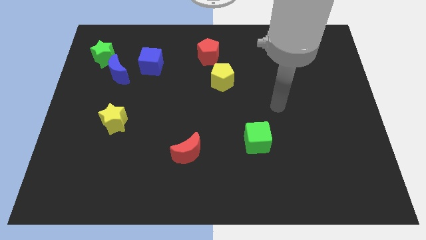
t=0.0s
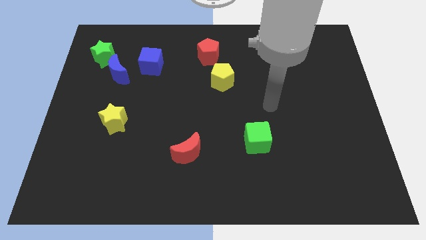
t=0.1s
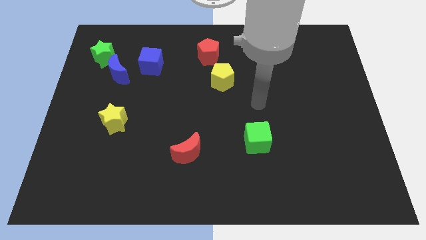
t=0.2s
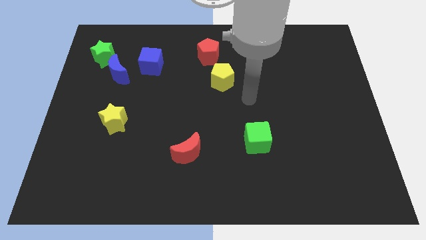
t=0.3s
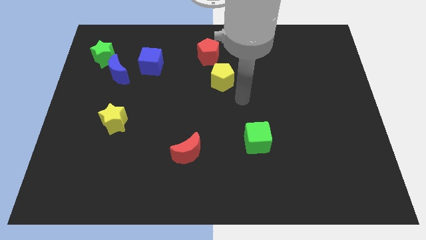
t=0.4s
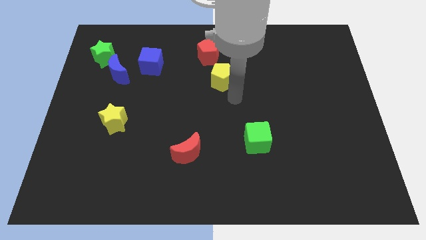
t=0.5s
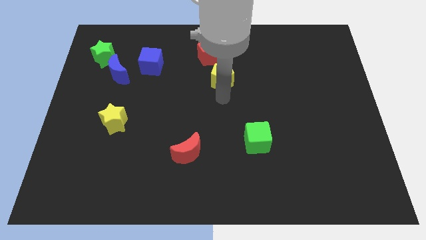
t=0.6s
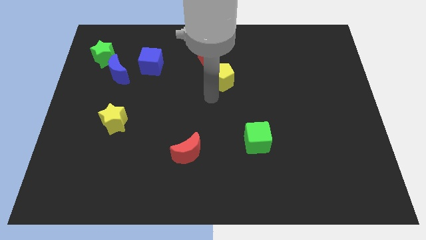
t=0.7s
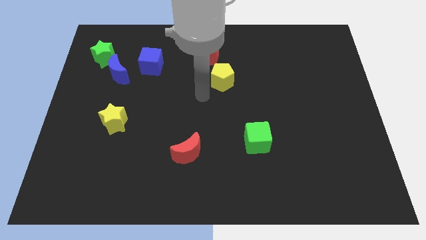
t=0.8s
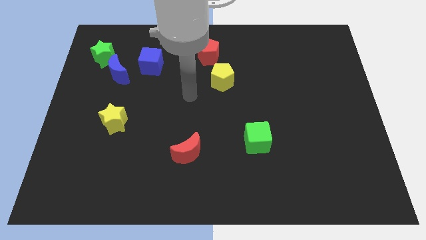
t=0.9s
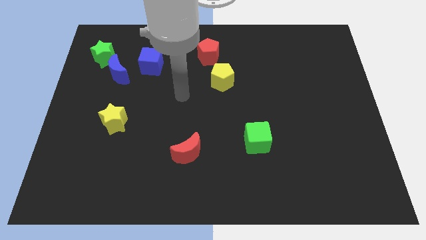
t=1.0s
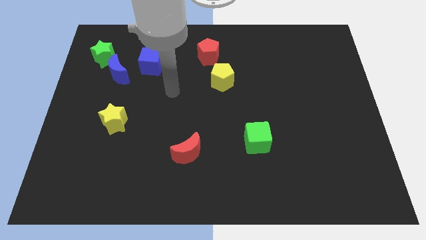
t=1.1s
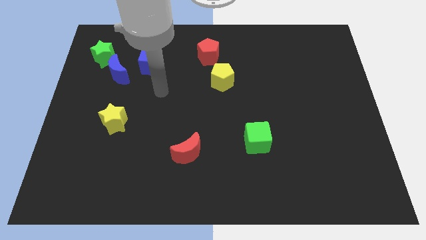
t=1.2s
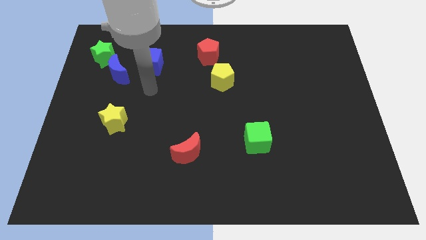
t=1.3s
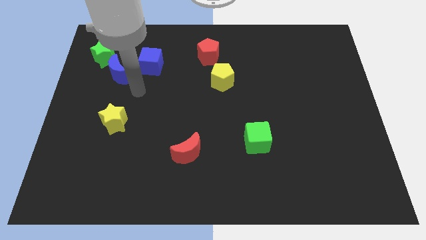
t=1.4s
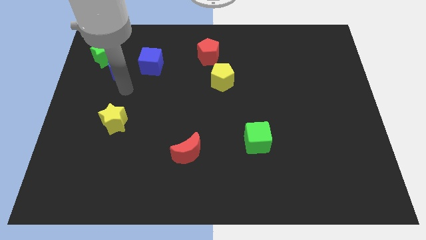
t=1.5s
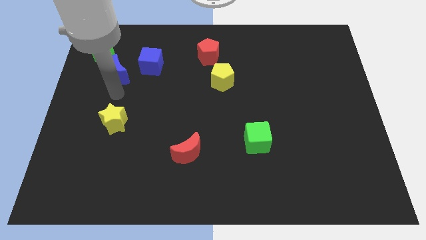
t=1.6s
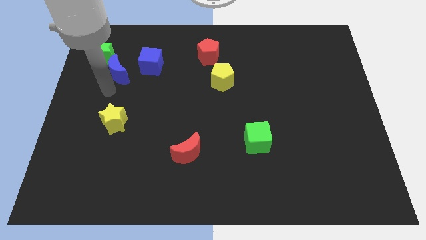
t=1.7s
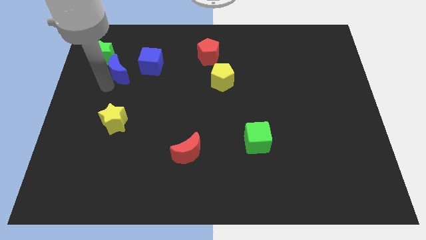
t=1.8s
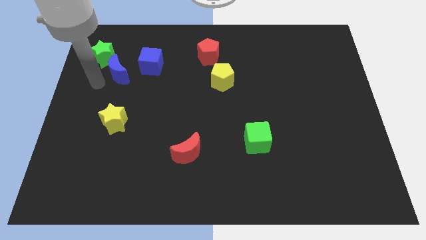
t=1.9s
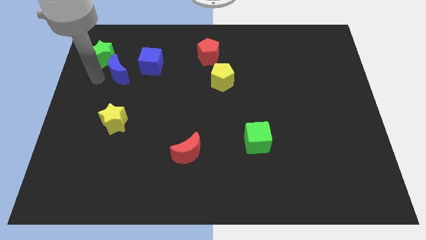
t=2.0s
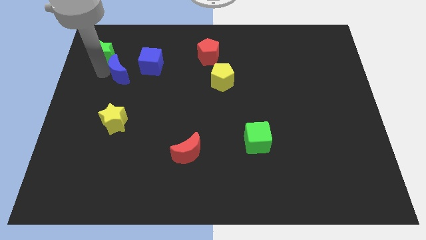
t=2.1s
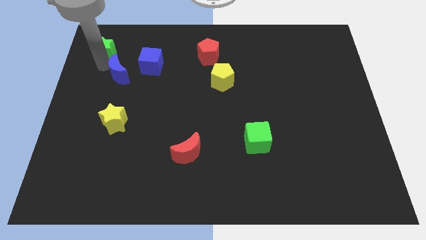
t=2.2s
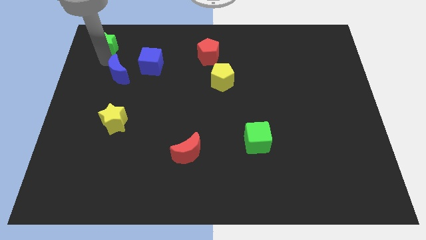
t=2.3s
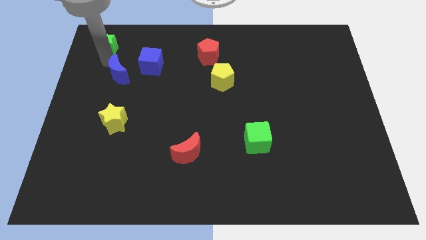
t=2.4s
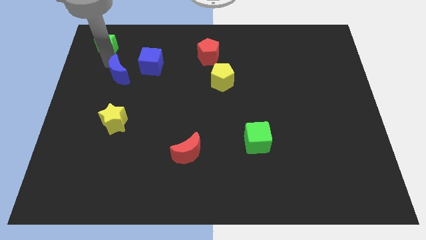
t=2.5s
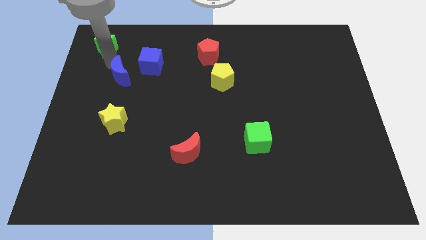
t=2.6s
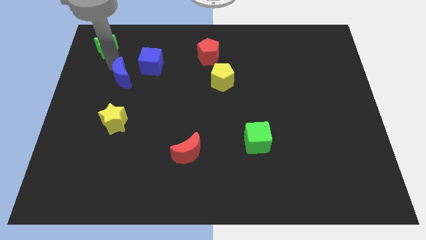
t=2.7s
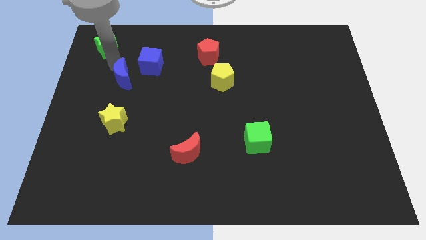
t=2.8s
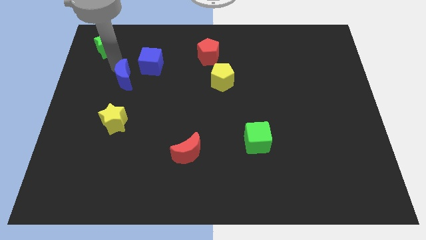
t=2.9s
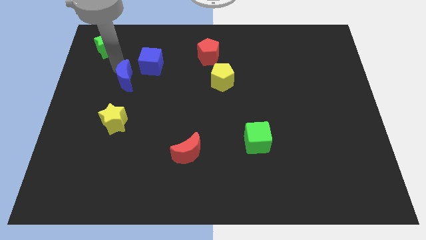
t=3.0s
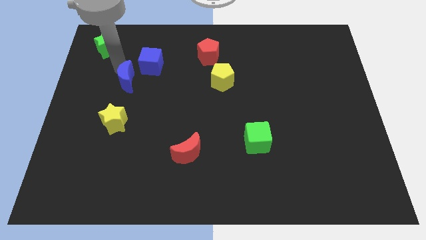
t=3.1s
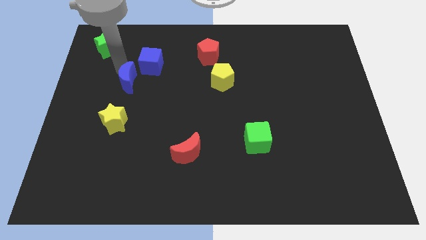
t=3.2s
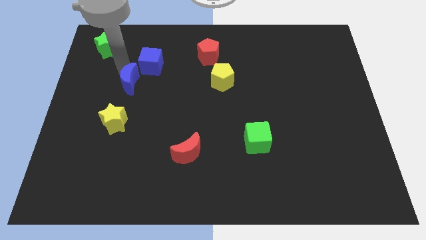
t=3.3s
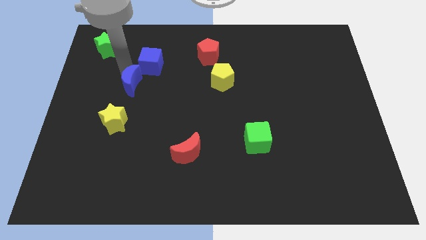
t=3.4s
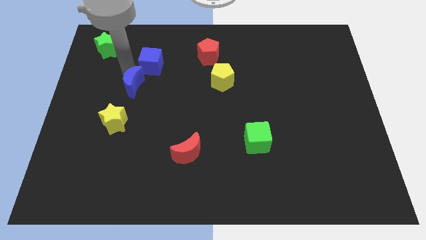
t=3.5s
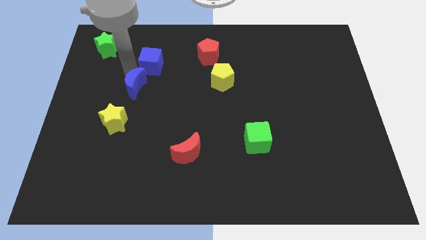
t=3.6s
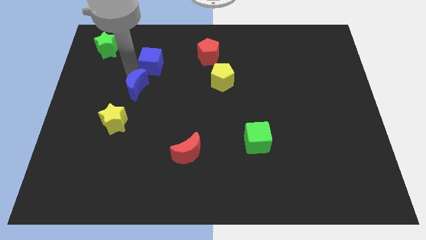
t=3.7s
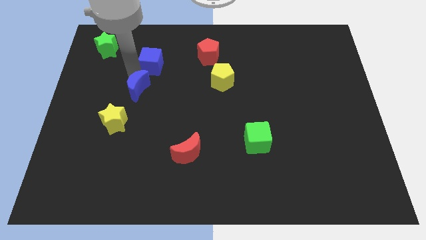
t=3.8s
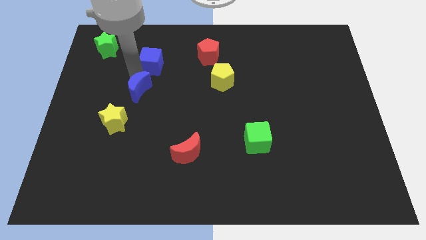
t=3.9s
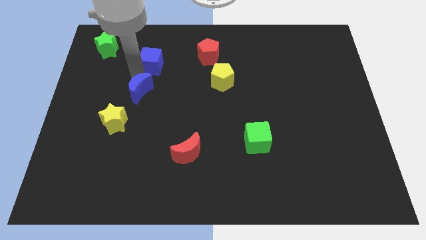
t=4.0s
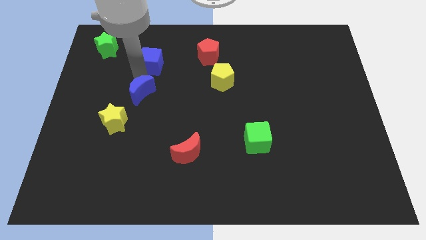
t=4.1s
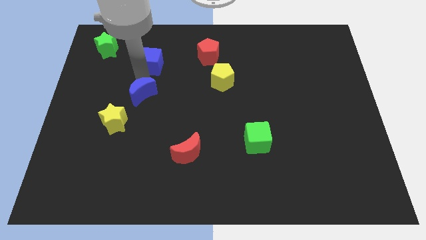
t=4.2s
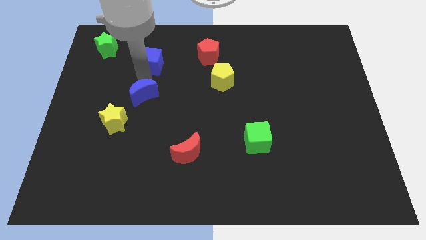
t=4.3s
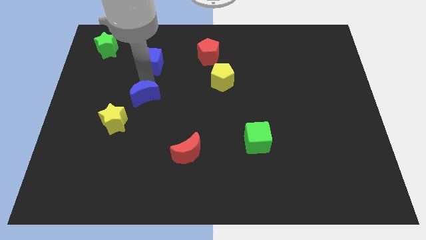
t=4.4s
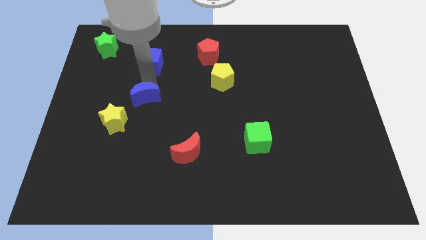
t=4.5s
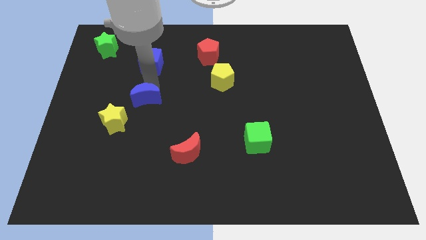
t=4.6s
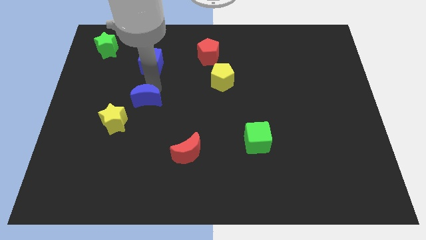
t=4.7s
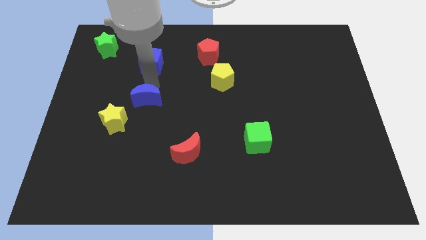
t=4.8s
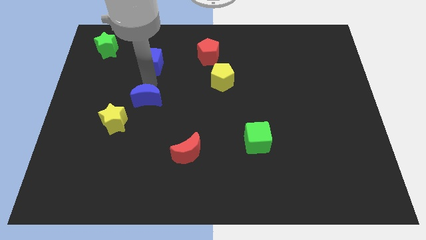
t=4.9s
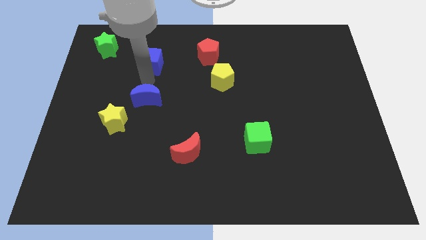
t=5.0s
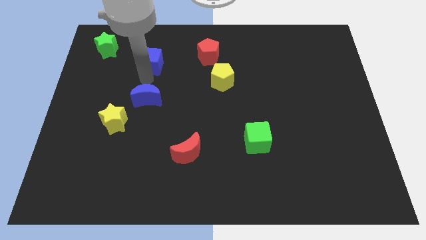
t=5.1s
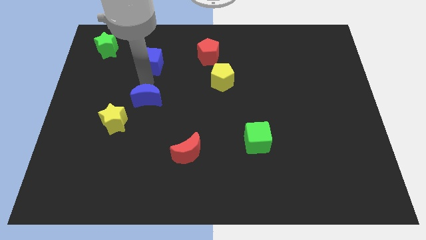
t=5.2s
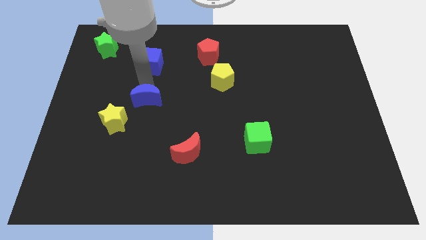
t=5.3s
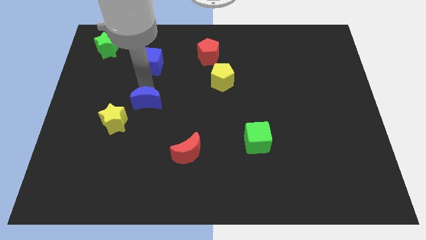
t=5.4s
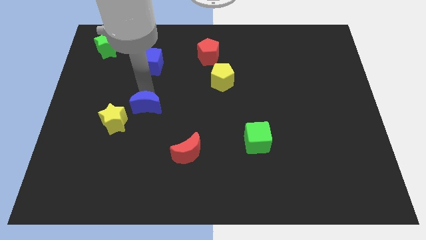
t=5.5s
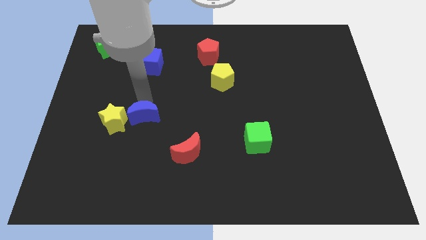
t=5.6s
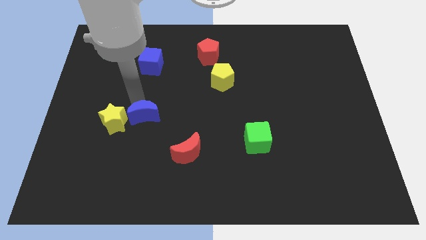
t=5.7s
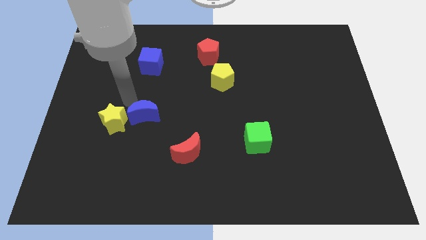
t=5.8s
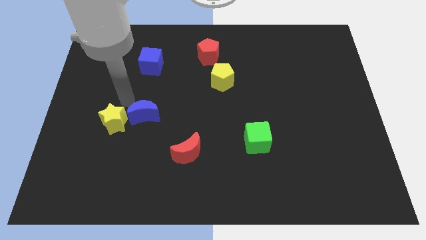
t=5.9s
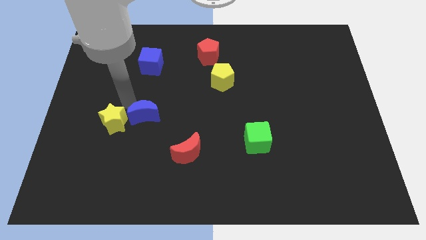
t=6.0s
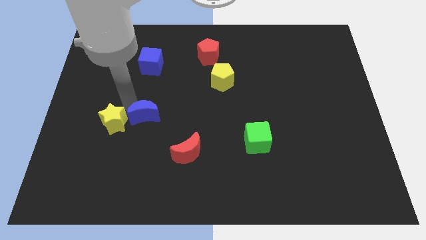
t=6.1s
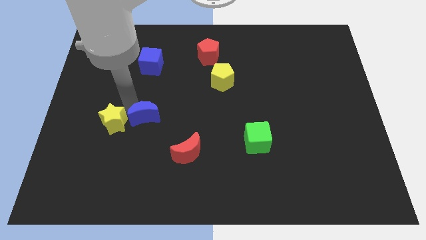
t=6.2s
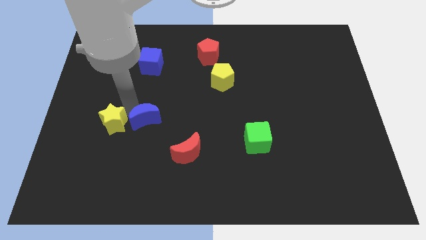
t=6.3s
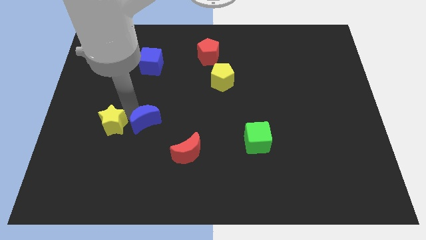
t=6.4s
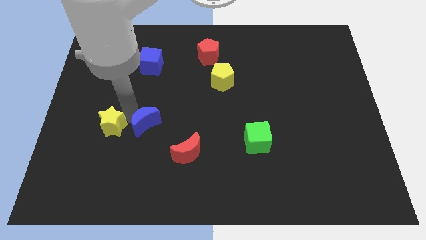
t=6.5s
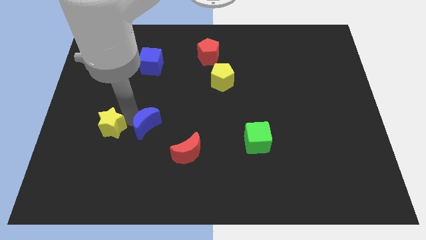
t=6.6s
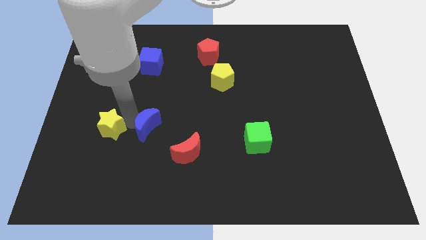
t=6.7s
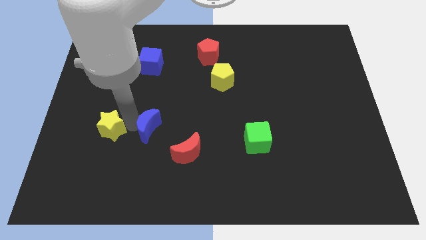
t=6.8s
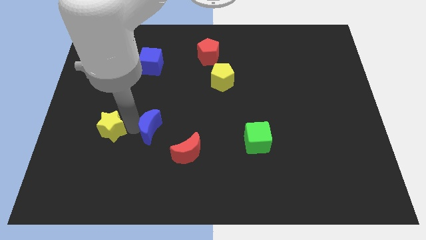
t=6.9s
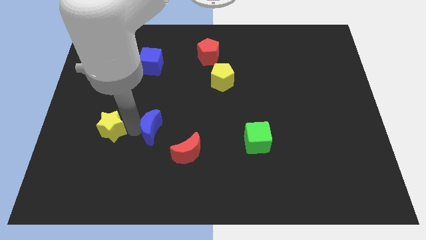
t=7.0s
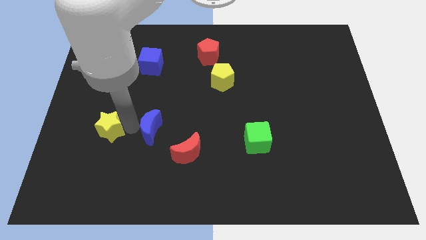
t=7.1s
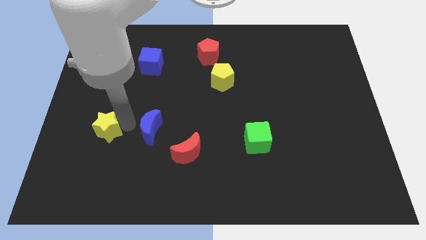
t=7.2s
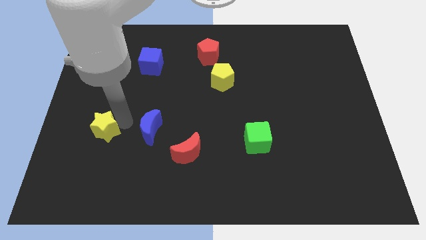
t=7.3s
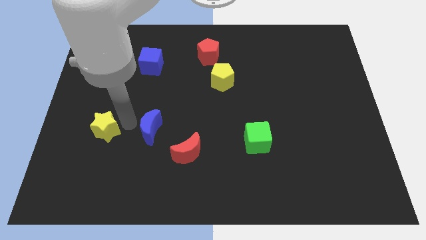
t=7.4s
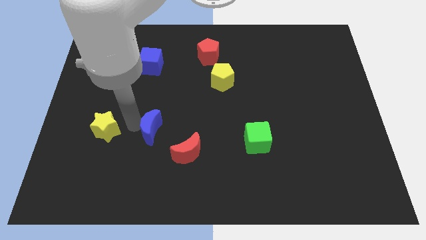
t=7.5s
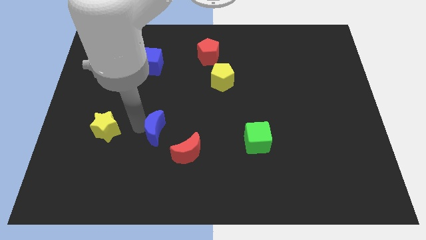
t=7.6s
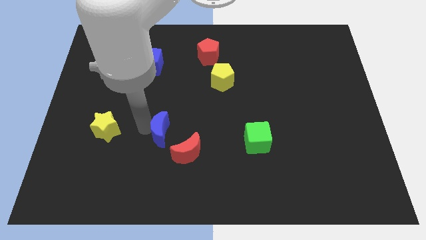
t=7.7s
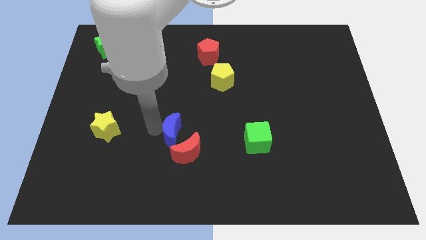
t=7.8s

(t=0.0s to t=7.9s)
push the blue moon to the red moon
